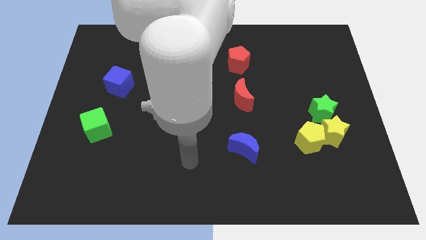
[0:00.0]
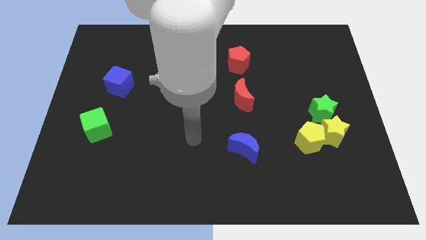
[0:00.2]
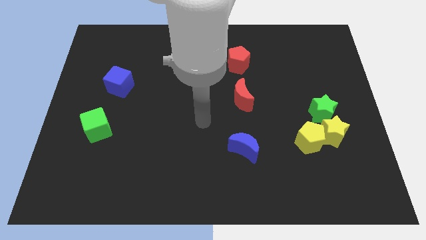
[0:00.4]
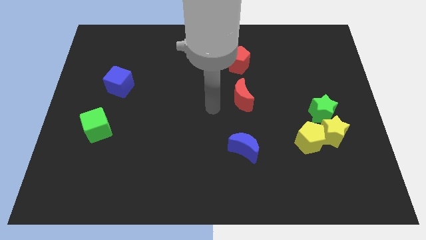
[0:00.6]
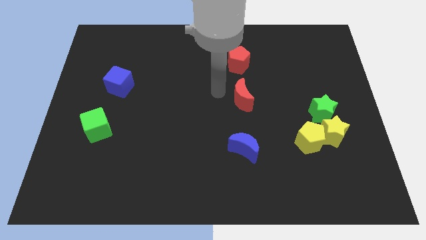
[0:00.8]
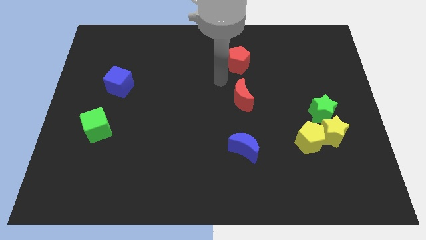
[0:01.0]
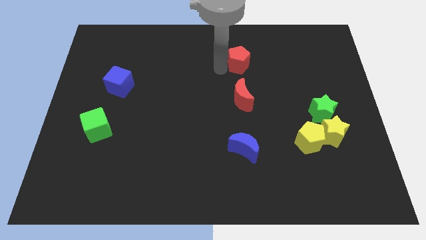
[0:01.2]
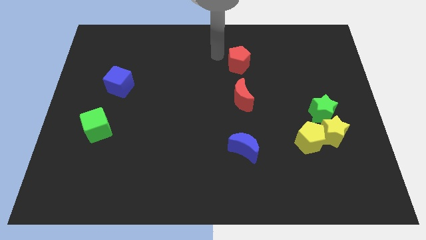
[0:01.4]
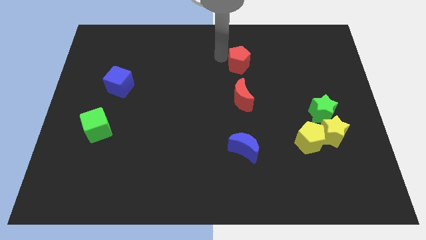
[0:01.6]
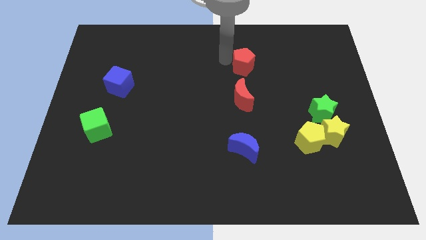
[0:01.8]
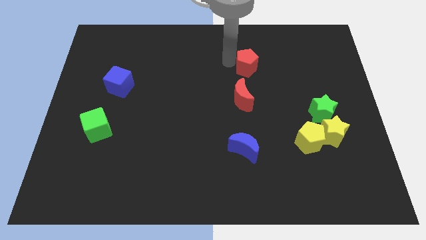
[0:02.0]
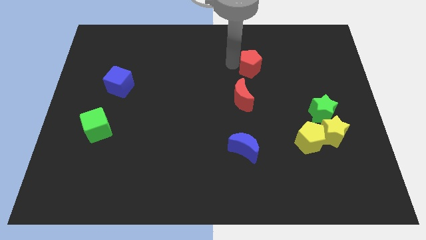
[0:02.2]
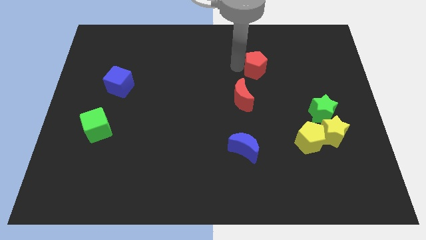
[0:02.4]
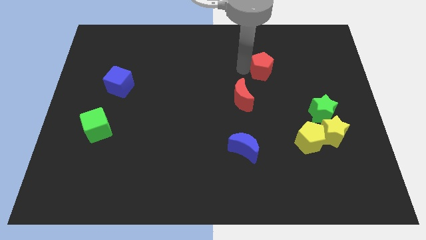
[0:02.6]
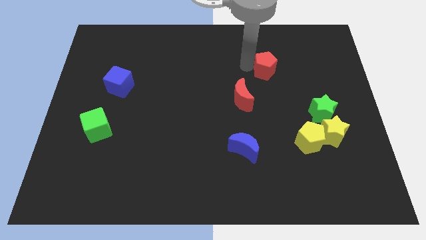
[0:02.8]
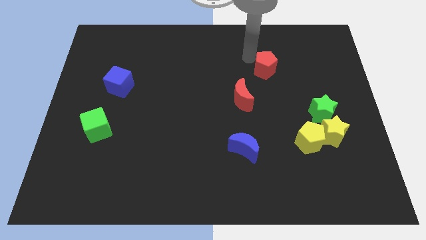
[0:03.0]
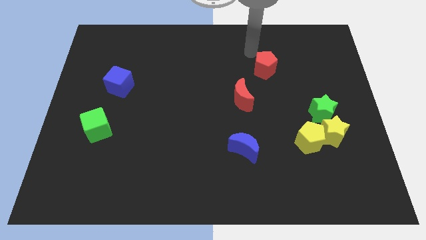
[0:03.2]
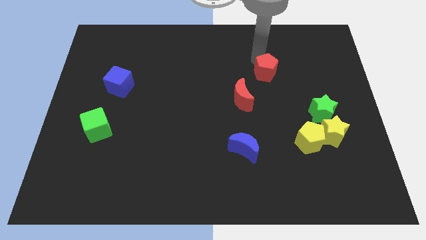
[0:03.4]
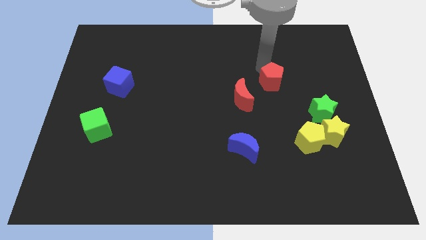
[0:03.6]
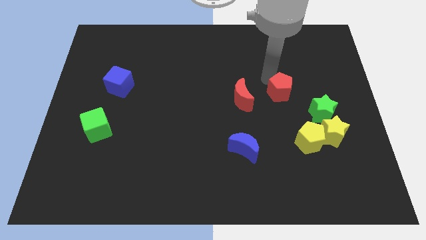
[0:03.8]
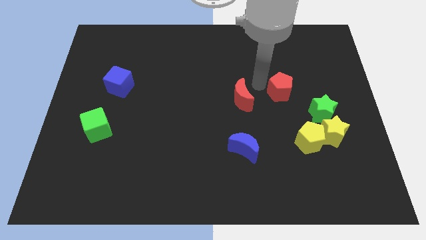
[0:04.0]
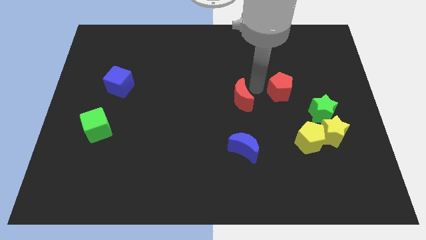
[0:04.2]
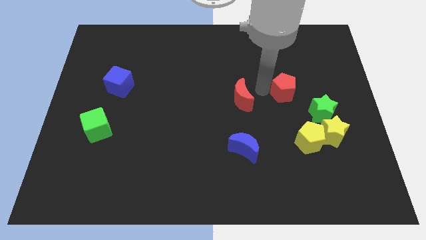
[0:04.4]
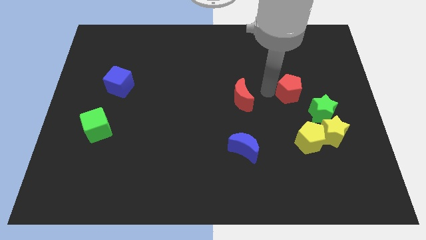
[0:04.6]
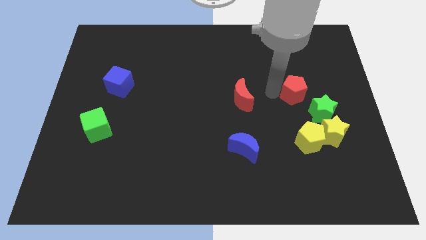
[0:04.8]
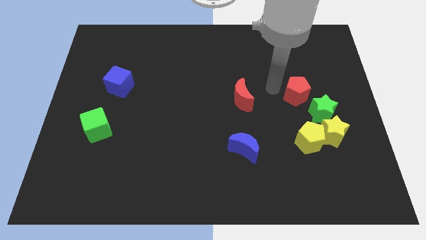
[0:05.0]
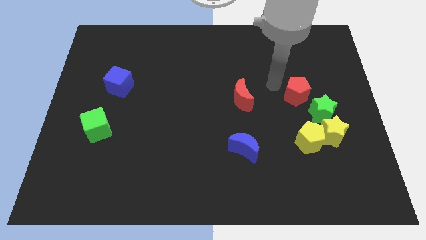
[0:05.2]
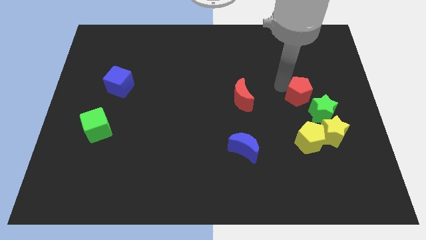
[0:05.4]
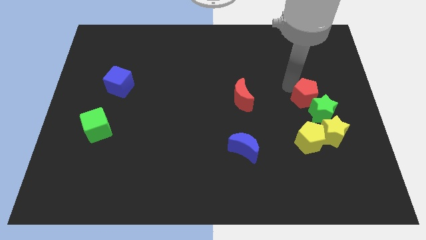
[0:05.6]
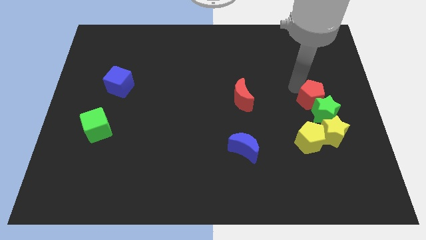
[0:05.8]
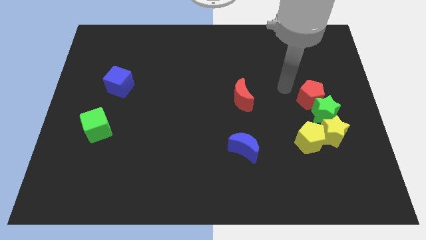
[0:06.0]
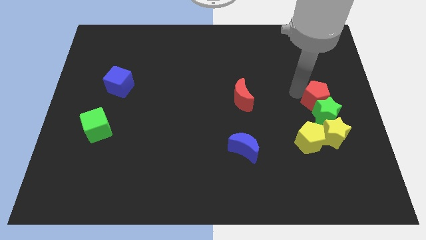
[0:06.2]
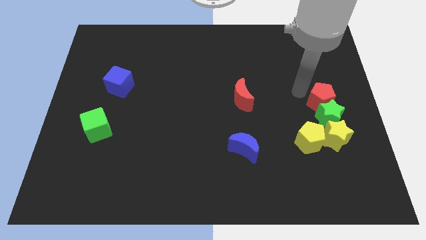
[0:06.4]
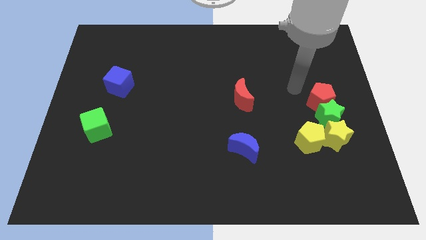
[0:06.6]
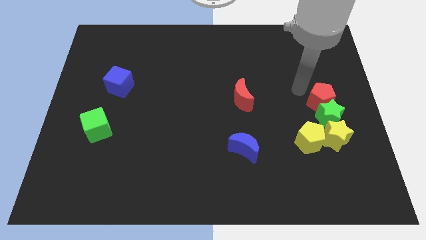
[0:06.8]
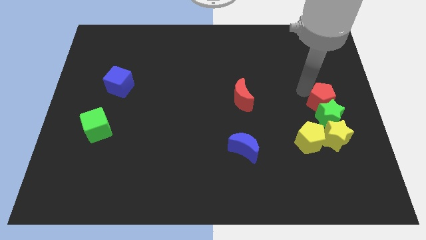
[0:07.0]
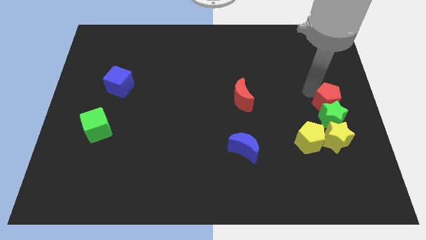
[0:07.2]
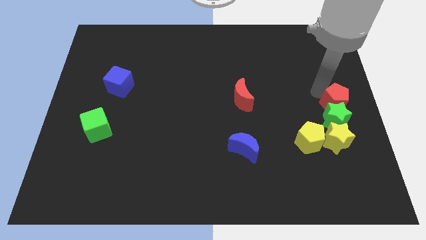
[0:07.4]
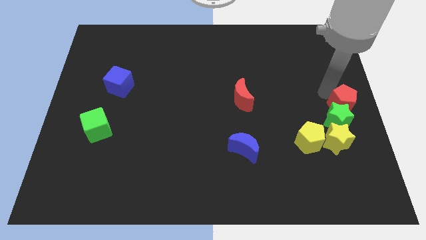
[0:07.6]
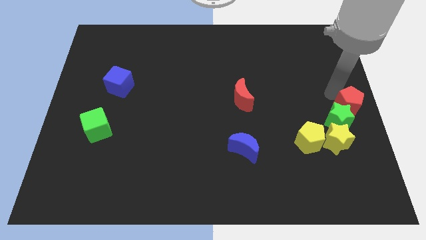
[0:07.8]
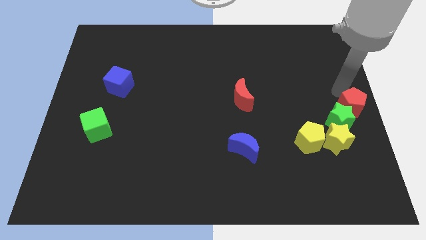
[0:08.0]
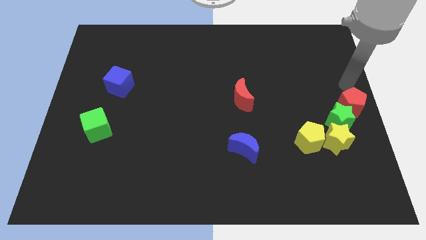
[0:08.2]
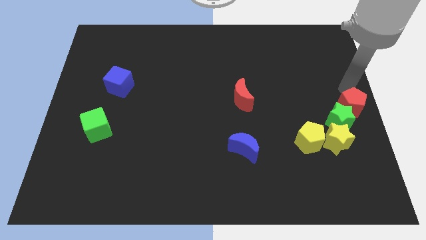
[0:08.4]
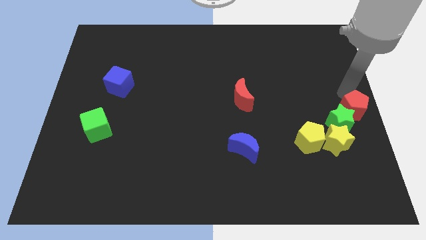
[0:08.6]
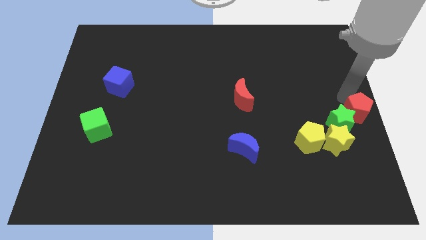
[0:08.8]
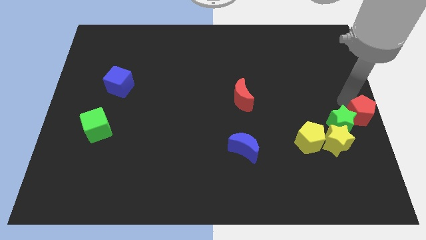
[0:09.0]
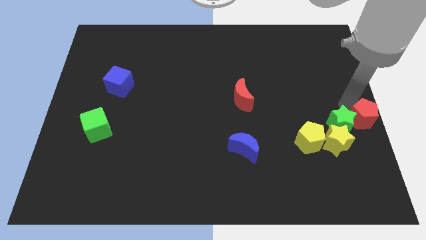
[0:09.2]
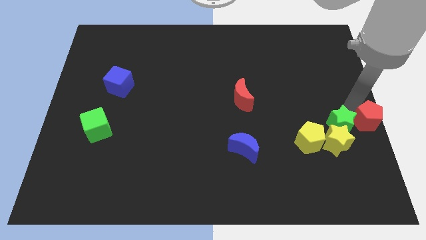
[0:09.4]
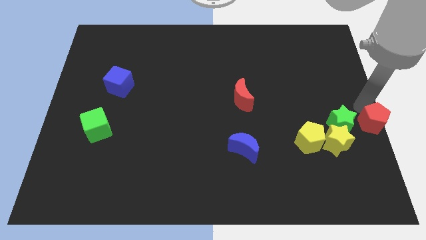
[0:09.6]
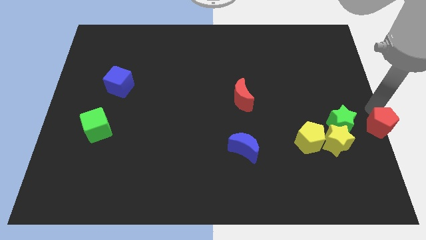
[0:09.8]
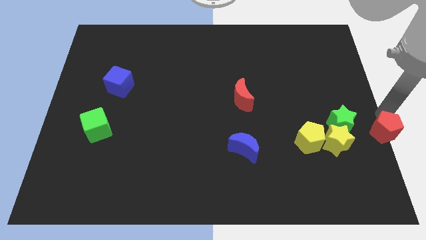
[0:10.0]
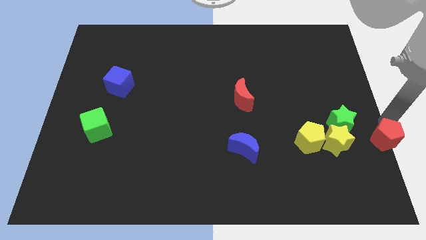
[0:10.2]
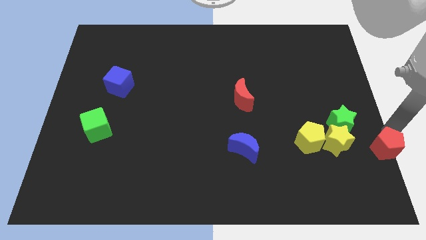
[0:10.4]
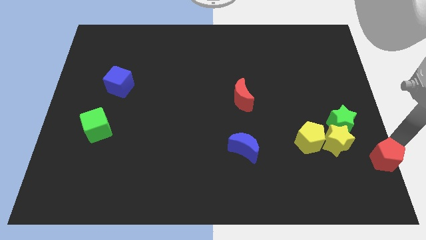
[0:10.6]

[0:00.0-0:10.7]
slide the red pentagon to the bottom right corner

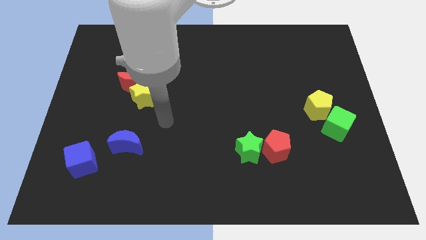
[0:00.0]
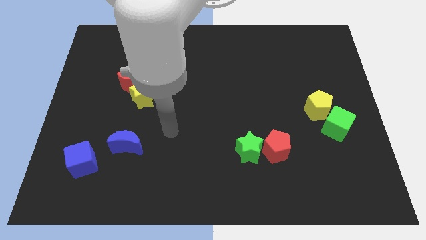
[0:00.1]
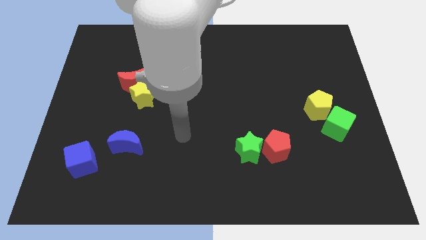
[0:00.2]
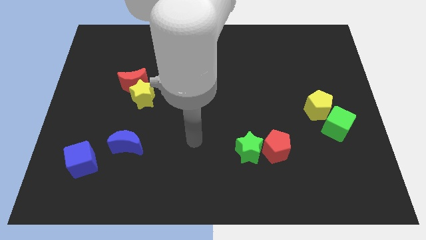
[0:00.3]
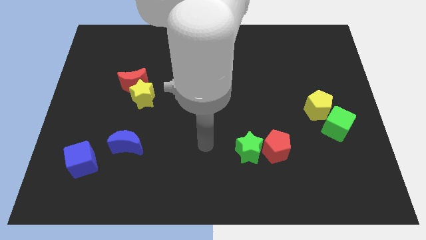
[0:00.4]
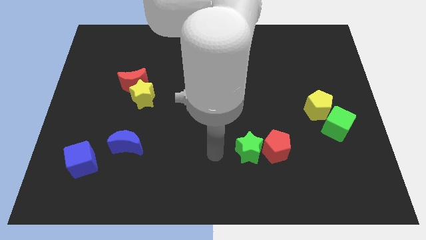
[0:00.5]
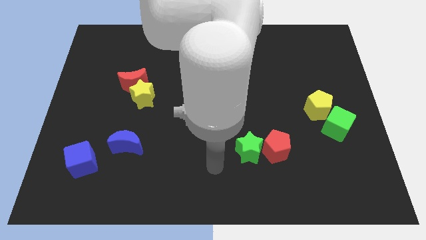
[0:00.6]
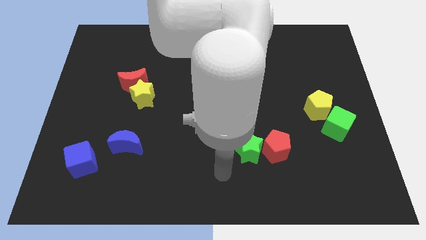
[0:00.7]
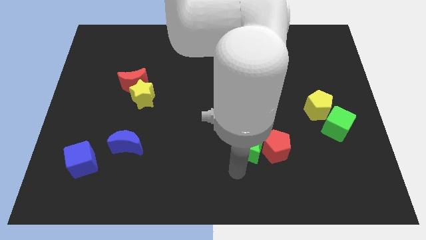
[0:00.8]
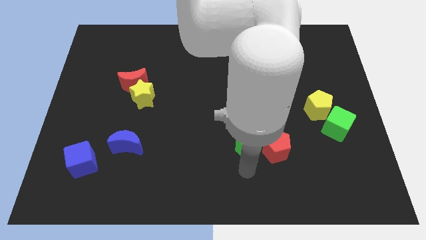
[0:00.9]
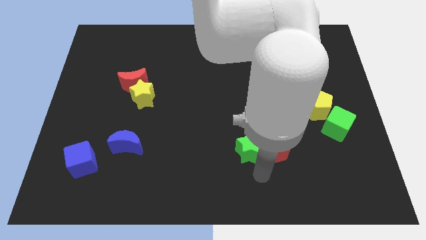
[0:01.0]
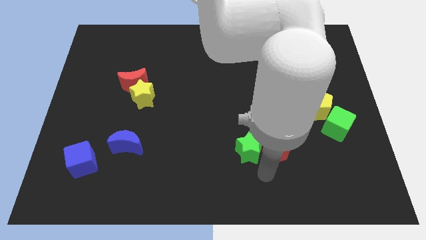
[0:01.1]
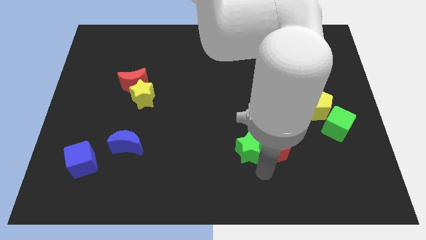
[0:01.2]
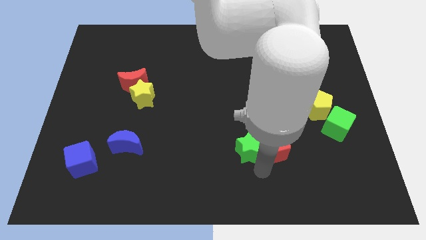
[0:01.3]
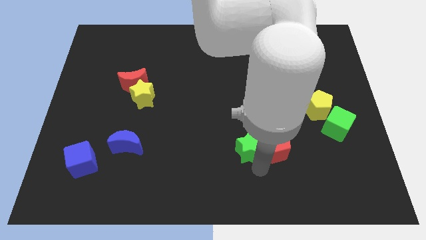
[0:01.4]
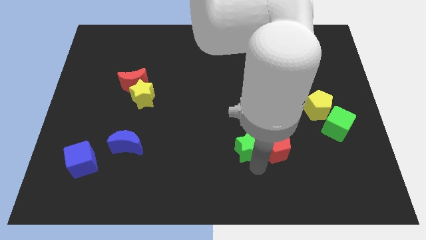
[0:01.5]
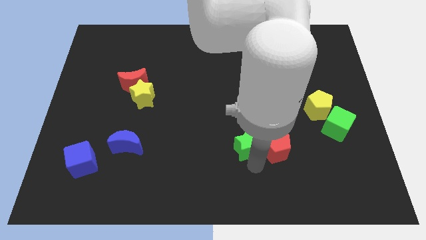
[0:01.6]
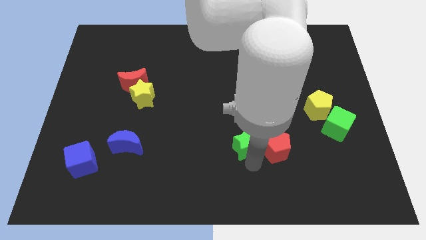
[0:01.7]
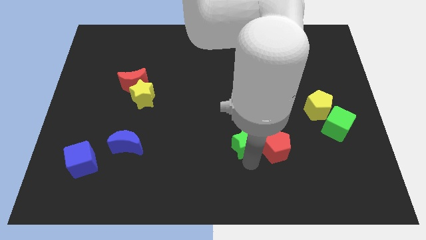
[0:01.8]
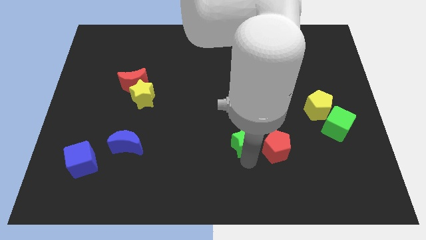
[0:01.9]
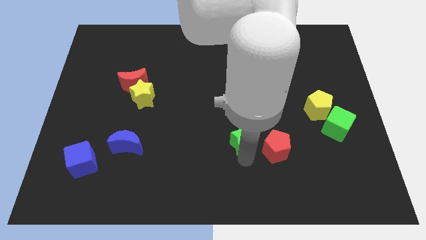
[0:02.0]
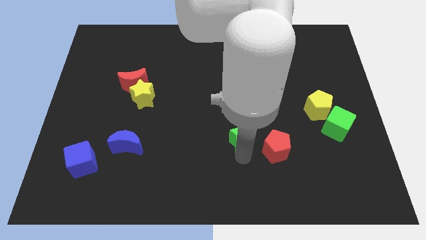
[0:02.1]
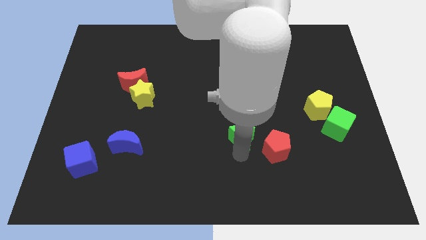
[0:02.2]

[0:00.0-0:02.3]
slide the green star to the middle of the board
